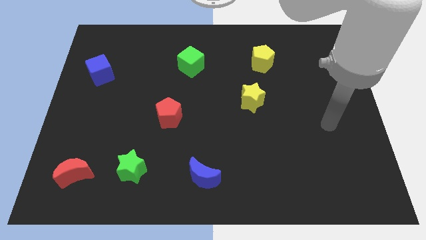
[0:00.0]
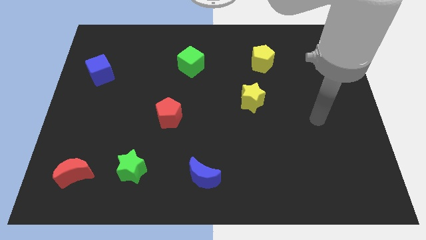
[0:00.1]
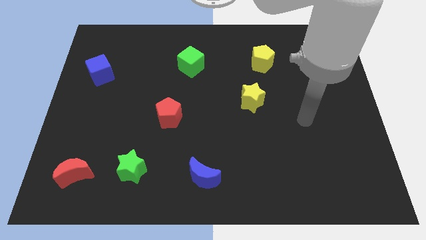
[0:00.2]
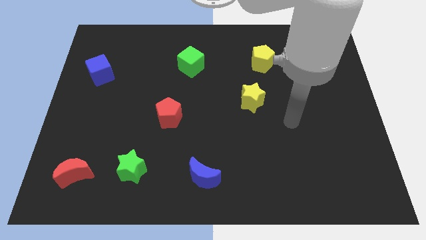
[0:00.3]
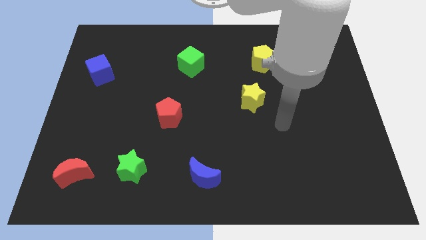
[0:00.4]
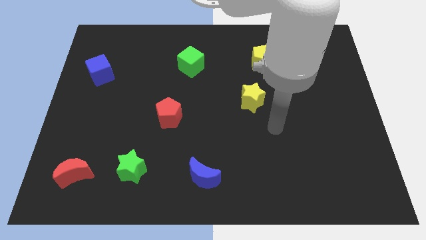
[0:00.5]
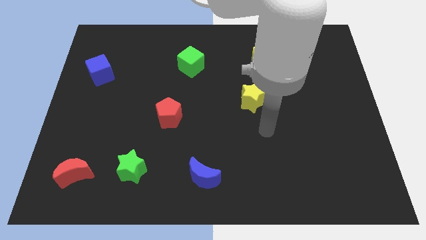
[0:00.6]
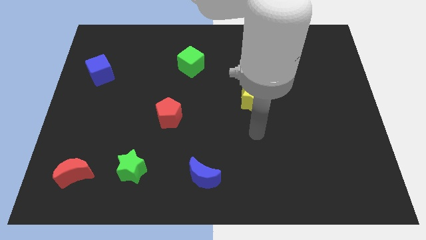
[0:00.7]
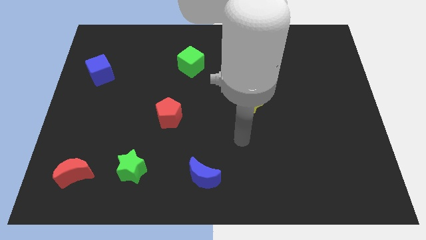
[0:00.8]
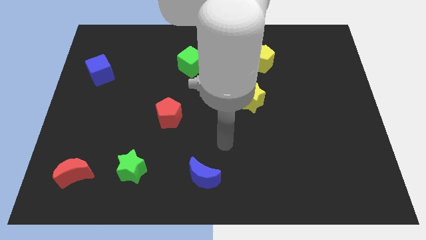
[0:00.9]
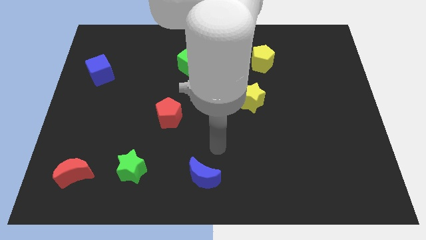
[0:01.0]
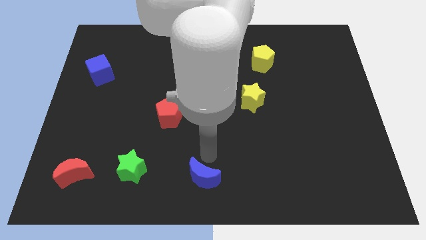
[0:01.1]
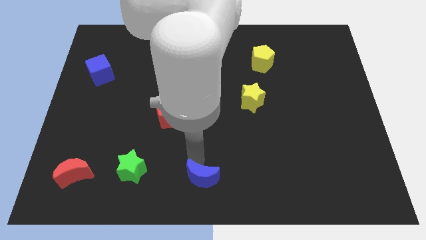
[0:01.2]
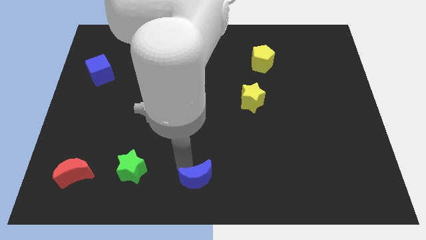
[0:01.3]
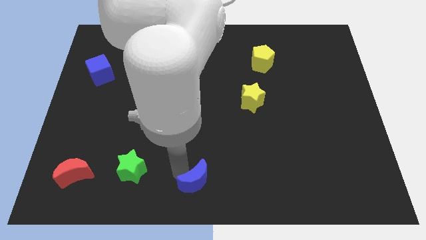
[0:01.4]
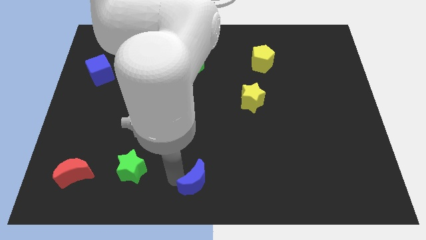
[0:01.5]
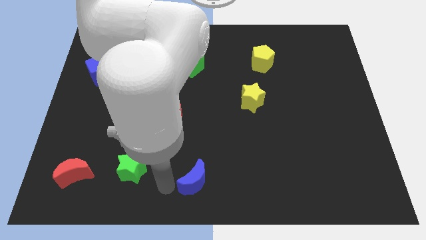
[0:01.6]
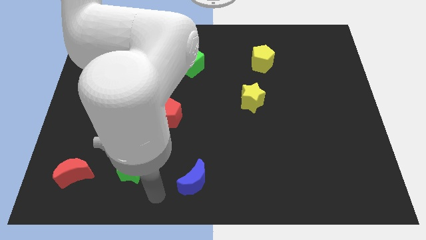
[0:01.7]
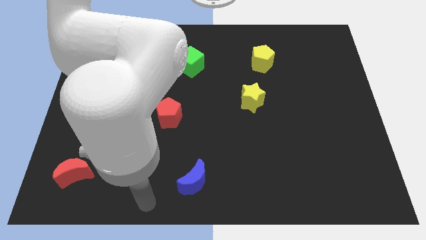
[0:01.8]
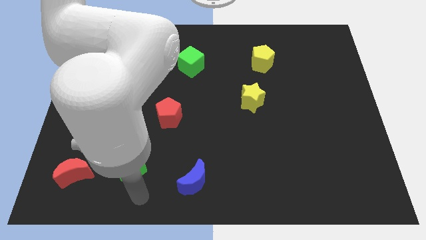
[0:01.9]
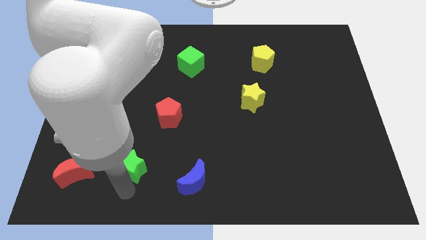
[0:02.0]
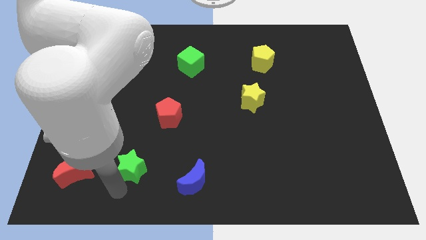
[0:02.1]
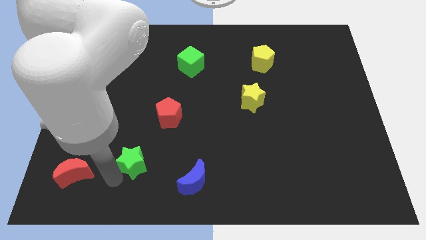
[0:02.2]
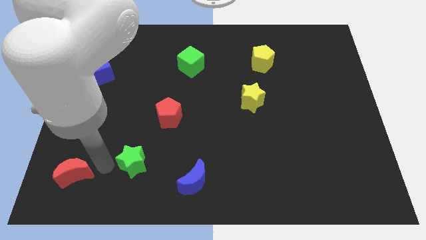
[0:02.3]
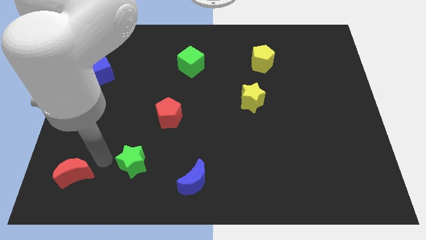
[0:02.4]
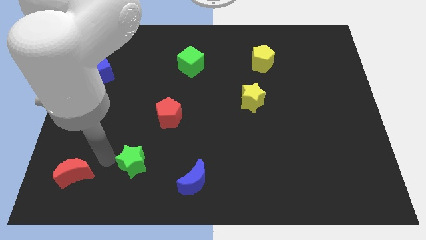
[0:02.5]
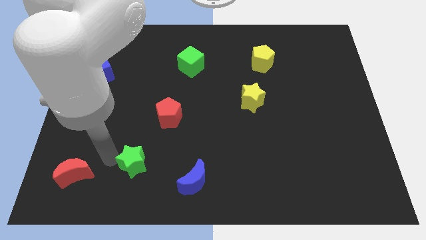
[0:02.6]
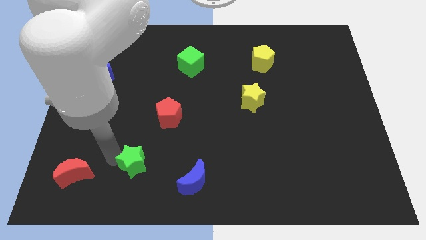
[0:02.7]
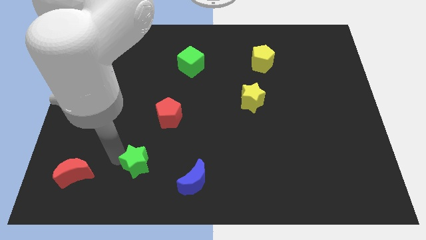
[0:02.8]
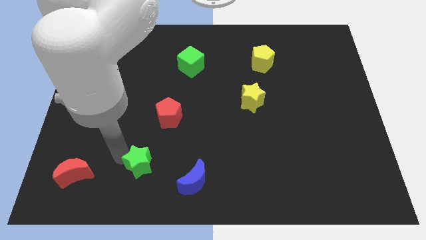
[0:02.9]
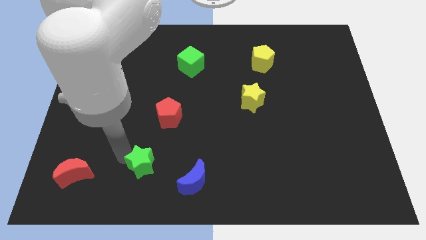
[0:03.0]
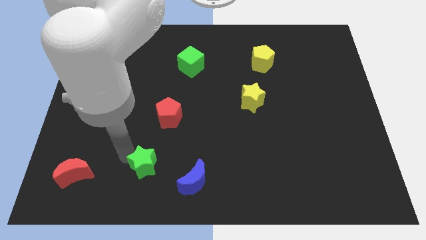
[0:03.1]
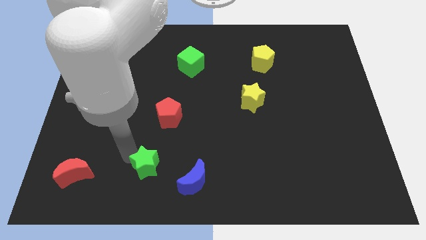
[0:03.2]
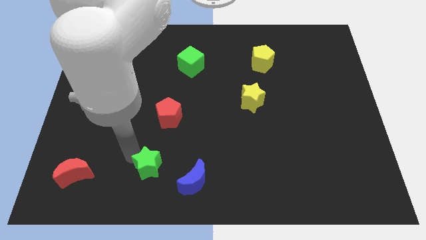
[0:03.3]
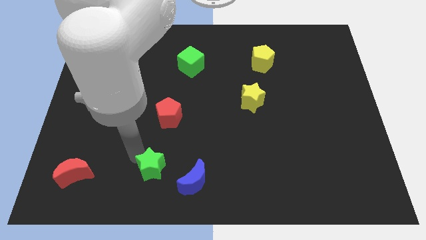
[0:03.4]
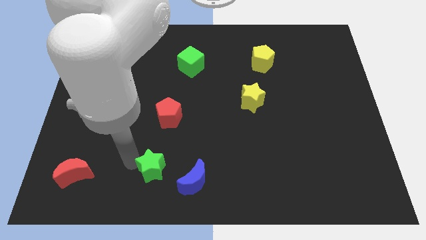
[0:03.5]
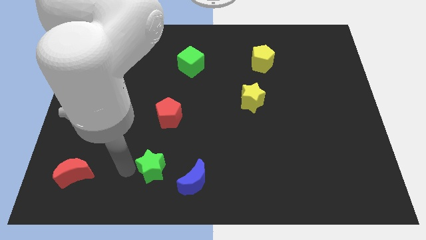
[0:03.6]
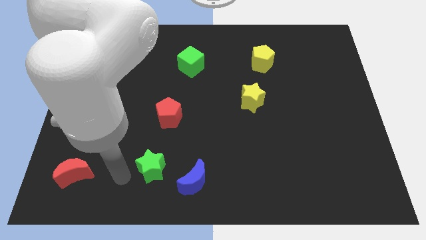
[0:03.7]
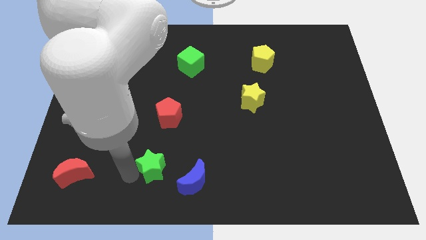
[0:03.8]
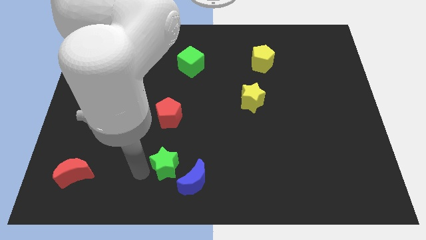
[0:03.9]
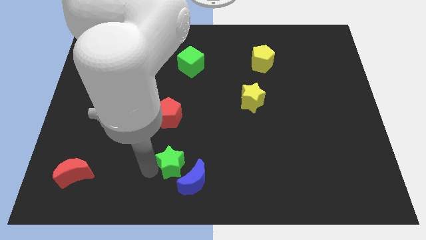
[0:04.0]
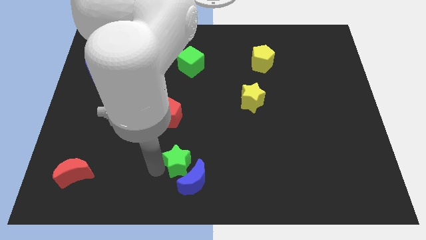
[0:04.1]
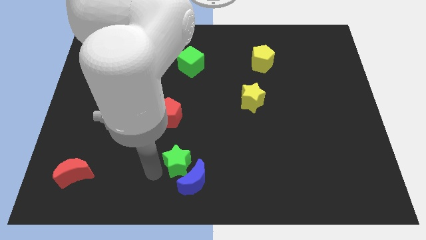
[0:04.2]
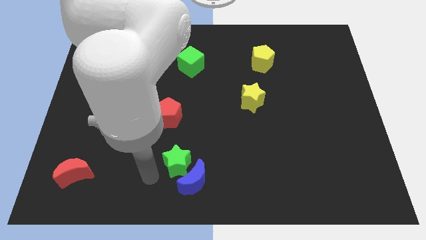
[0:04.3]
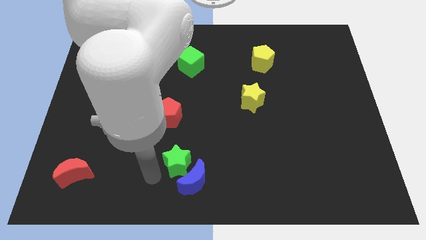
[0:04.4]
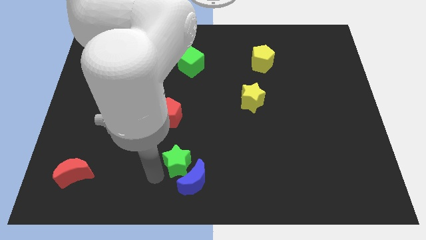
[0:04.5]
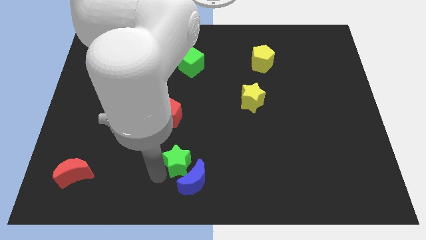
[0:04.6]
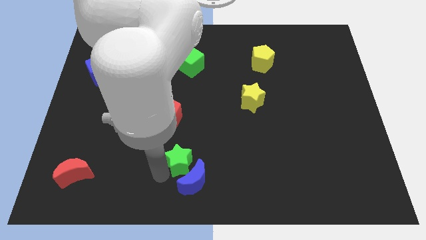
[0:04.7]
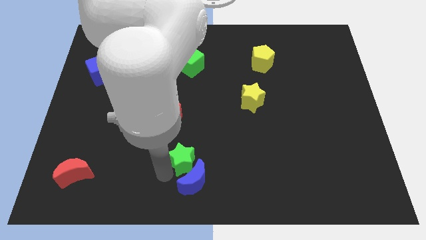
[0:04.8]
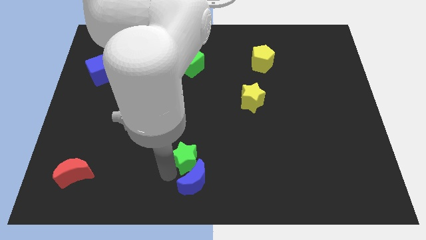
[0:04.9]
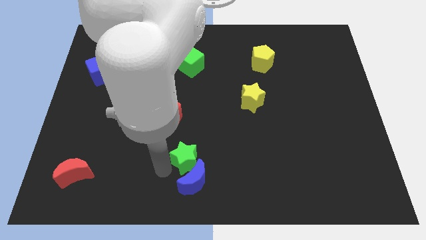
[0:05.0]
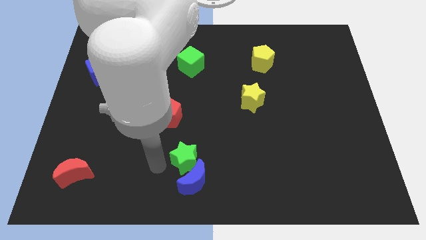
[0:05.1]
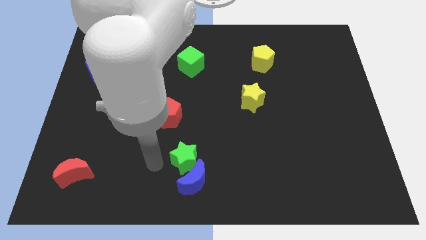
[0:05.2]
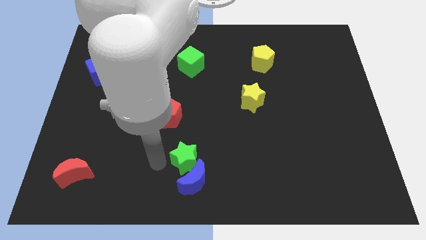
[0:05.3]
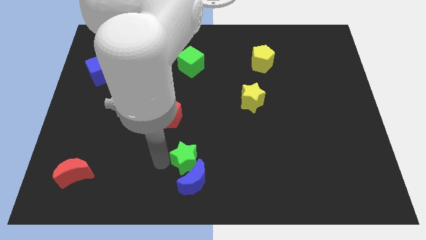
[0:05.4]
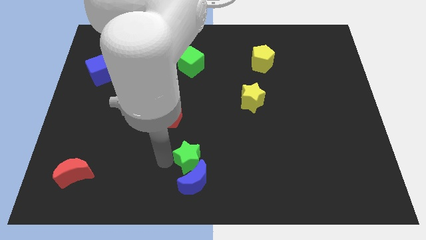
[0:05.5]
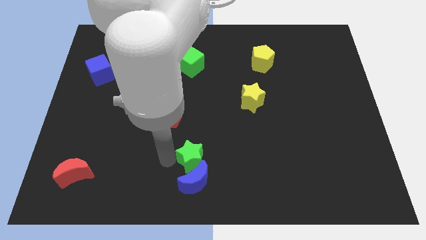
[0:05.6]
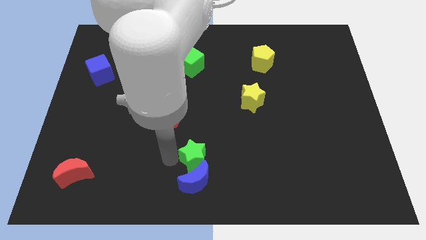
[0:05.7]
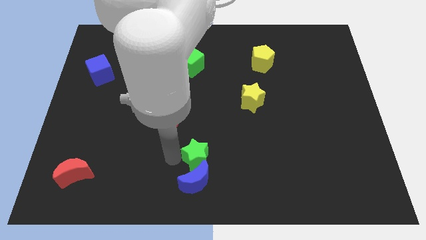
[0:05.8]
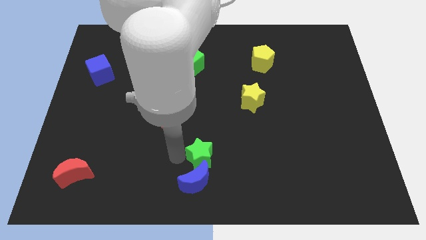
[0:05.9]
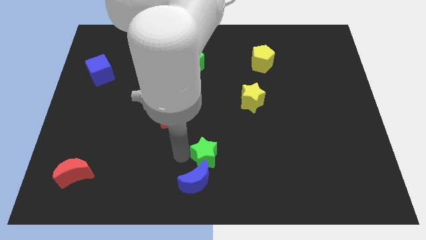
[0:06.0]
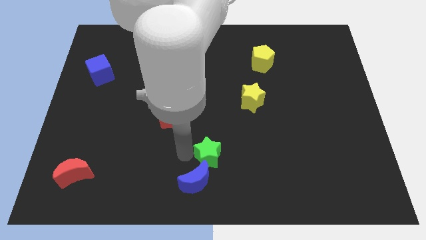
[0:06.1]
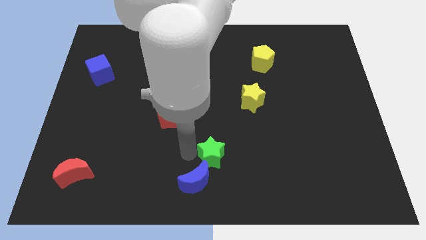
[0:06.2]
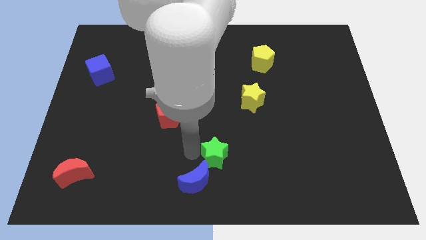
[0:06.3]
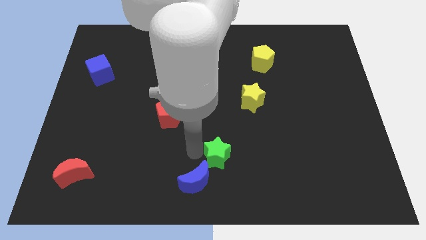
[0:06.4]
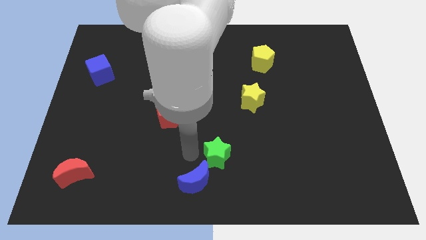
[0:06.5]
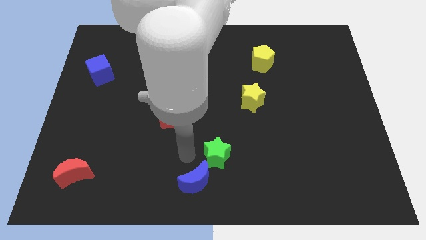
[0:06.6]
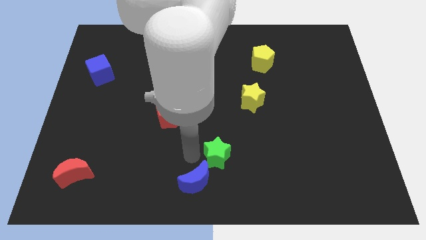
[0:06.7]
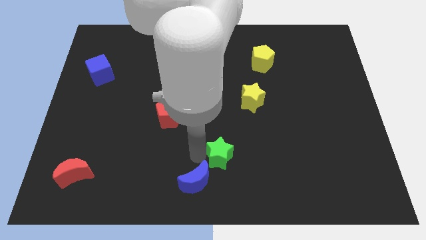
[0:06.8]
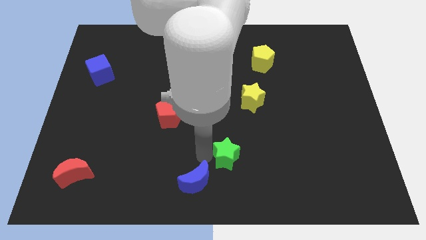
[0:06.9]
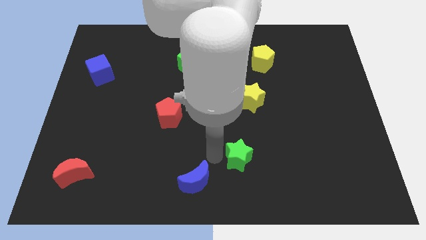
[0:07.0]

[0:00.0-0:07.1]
slide the green star to the right

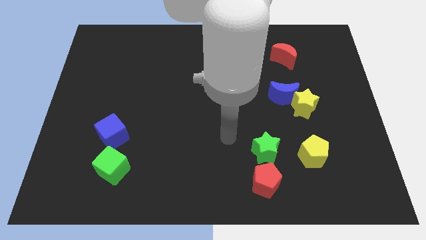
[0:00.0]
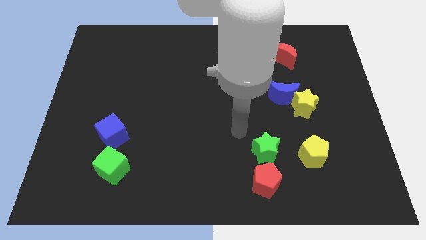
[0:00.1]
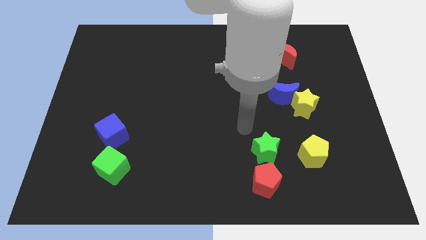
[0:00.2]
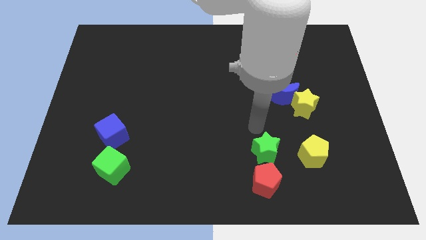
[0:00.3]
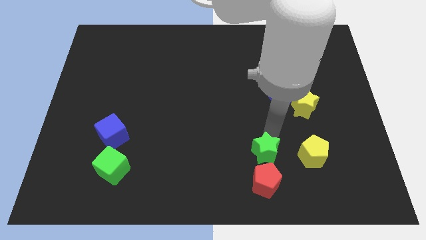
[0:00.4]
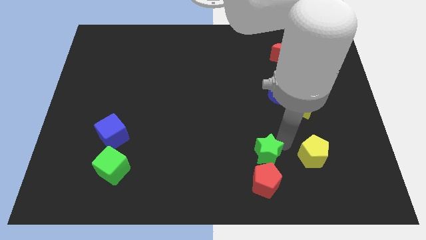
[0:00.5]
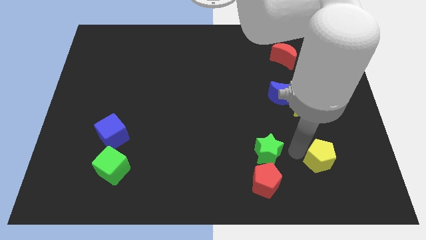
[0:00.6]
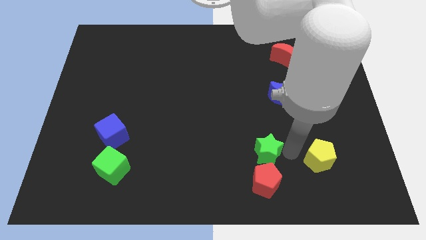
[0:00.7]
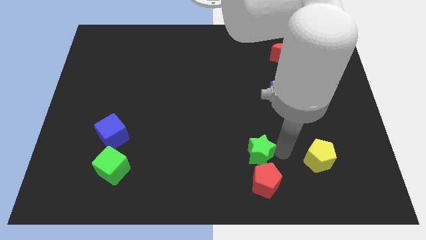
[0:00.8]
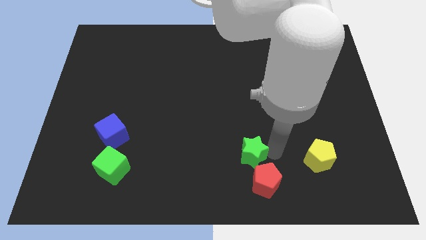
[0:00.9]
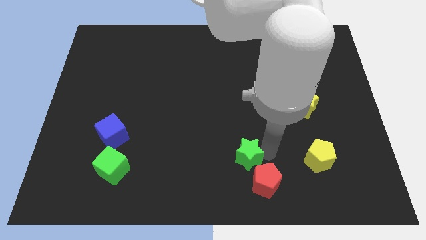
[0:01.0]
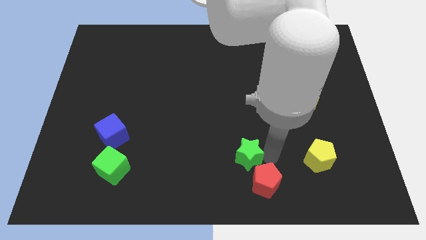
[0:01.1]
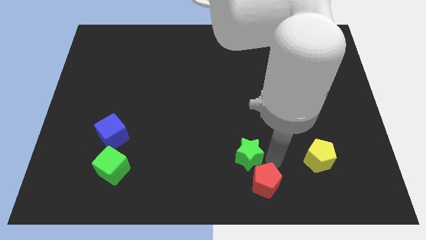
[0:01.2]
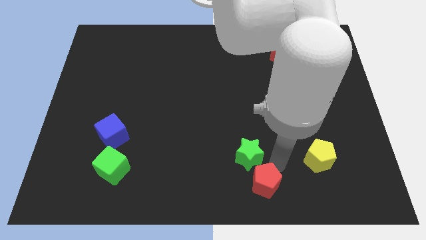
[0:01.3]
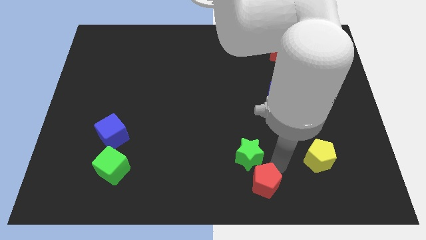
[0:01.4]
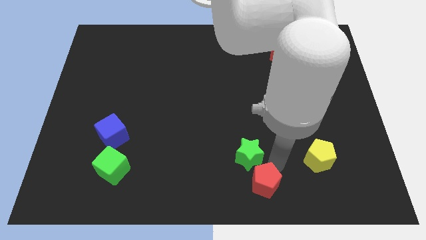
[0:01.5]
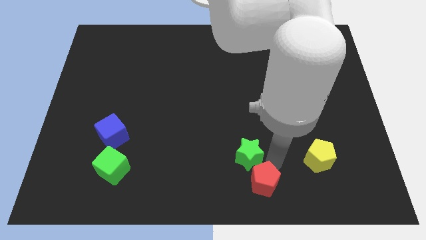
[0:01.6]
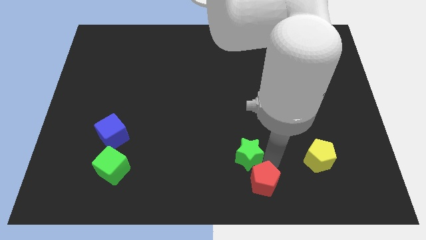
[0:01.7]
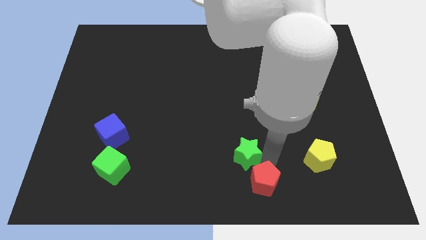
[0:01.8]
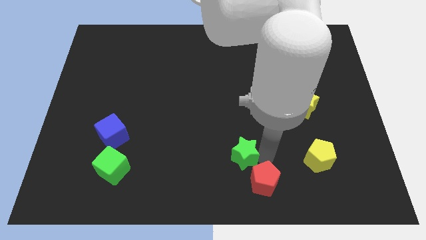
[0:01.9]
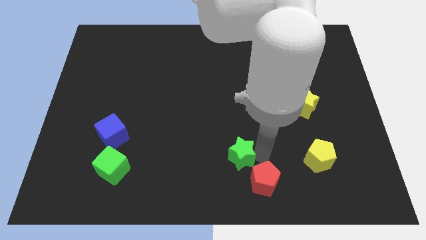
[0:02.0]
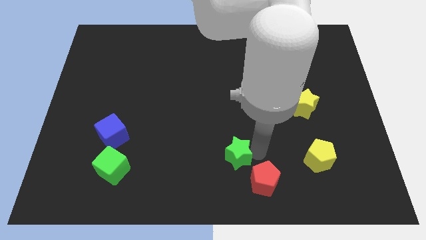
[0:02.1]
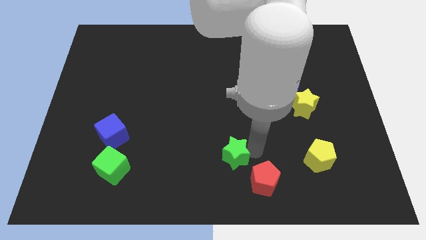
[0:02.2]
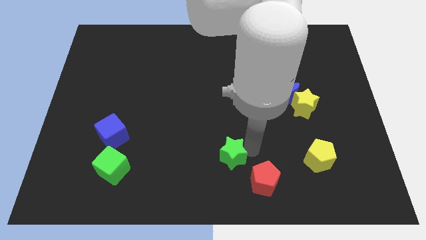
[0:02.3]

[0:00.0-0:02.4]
slide the green star a little left
